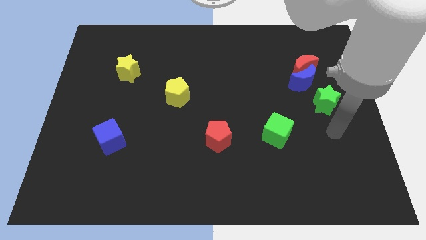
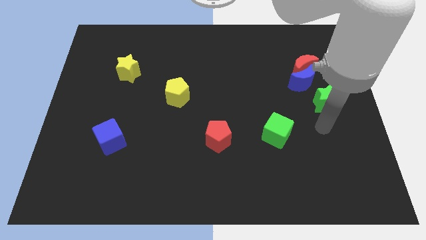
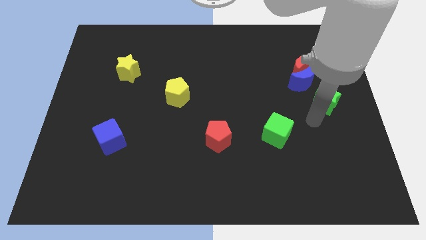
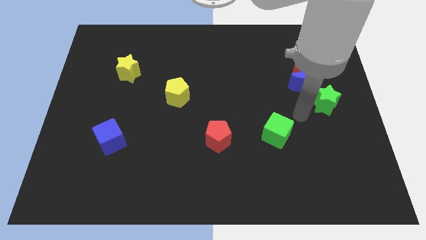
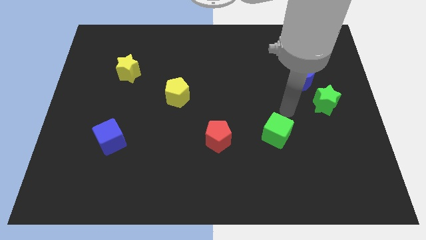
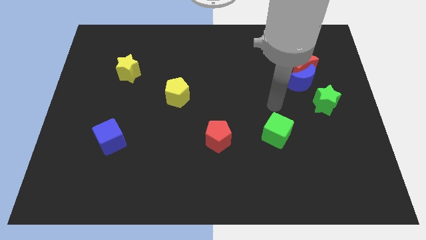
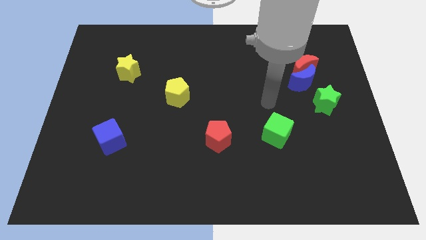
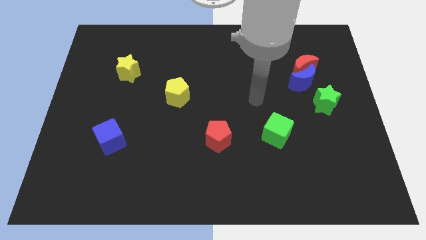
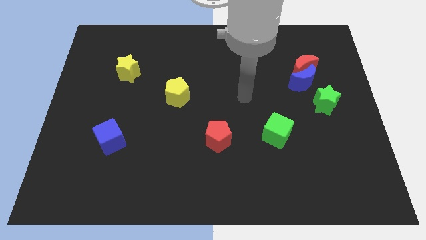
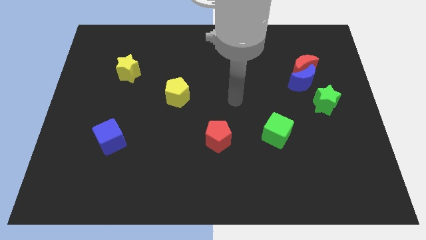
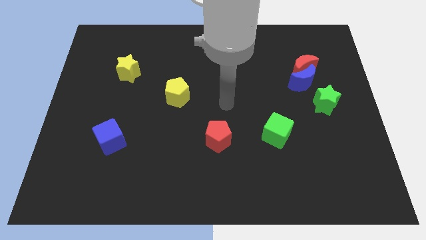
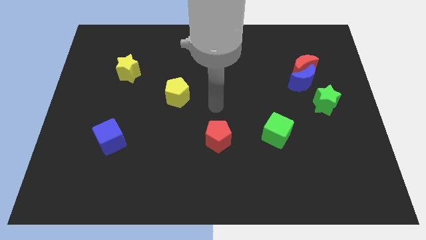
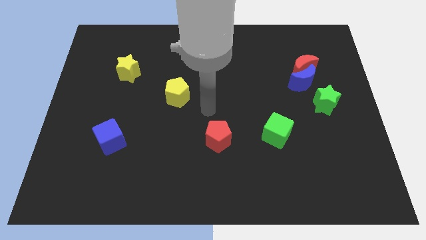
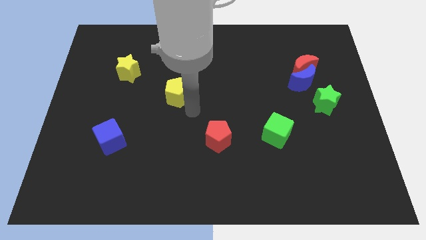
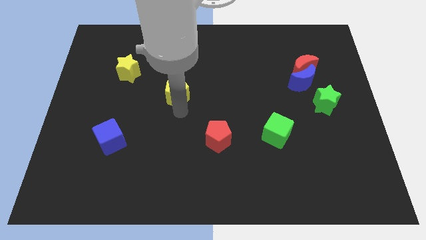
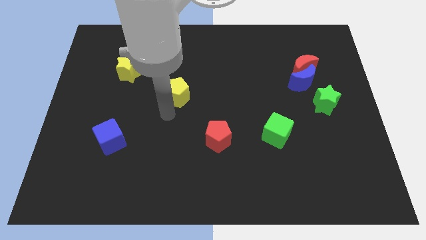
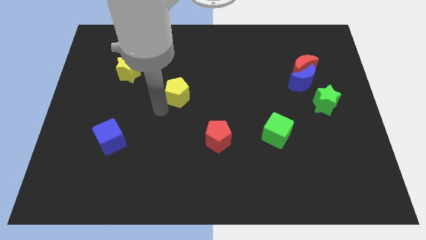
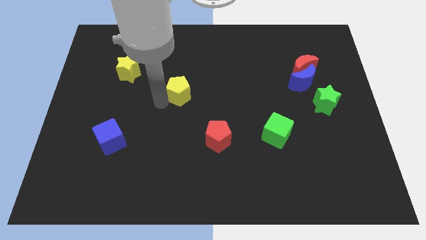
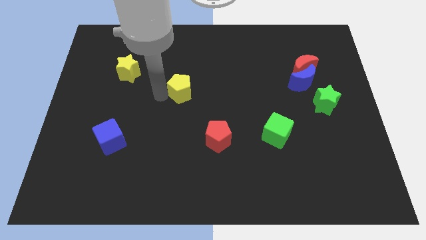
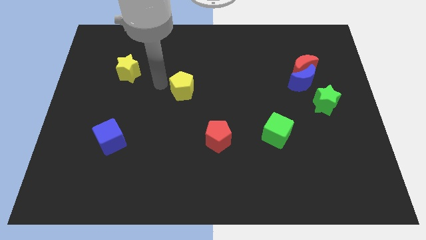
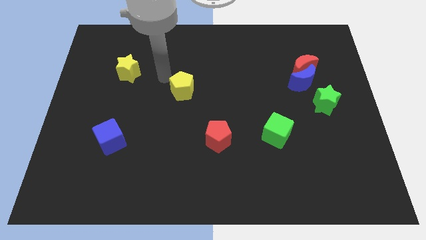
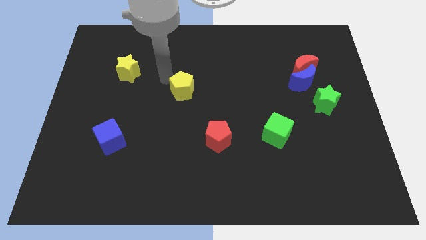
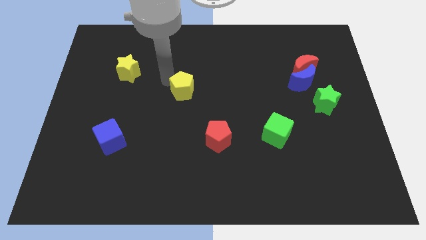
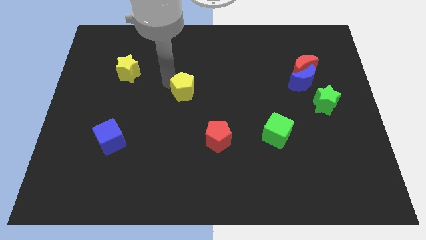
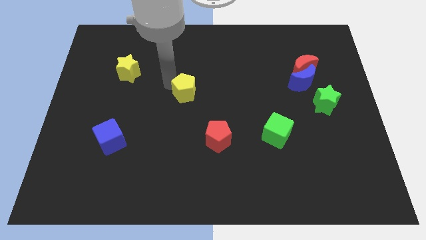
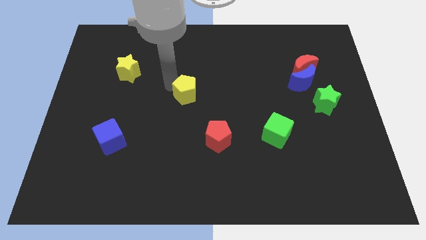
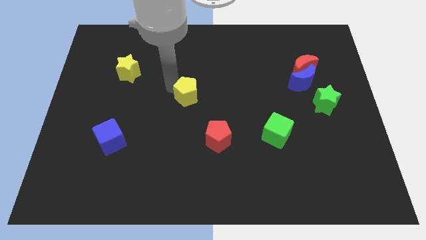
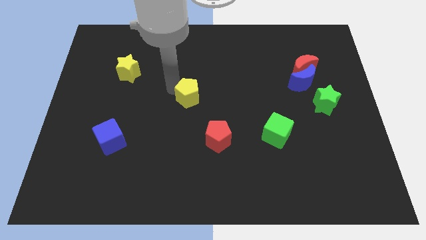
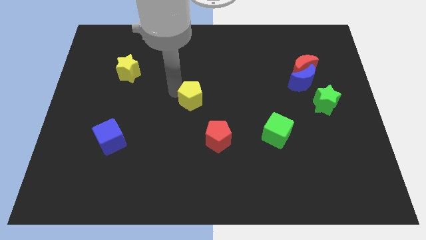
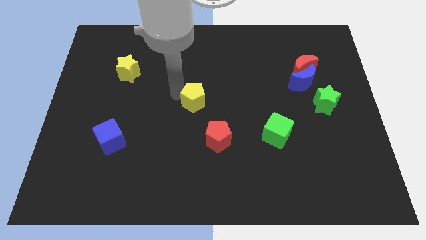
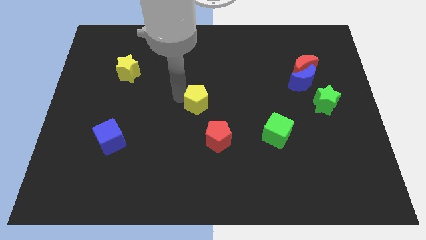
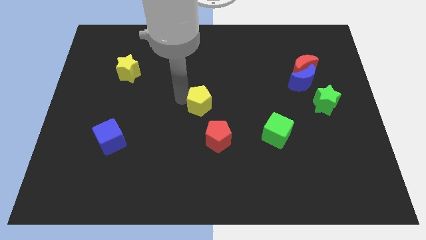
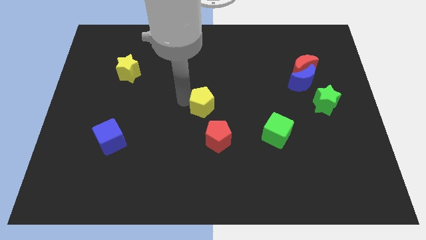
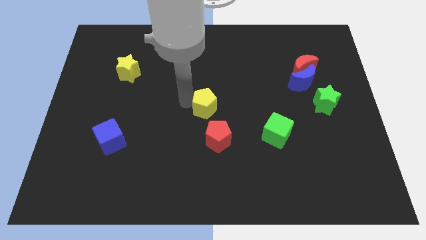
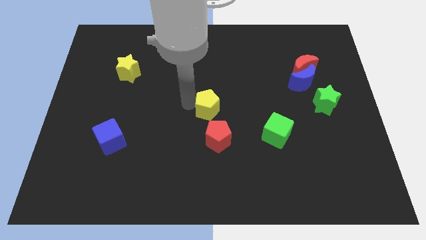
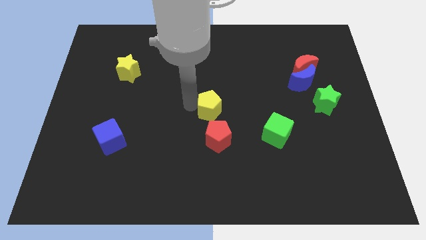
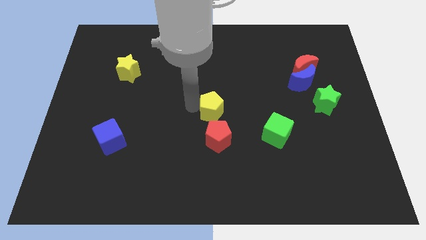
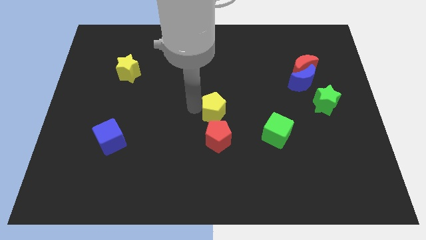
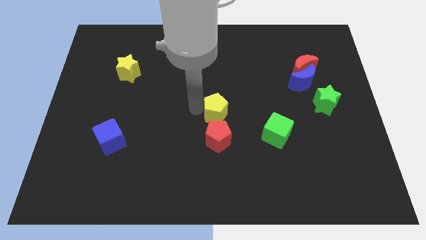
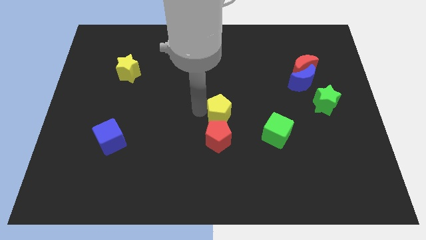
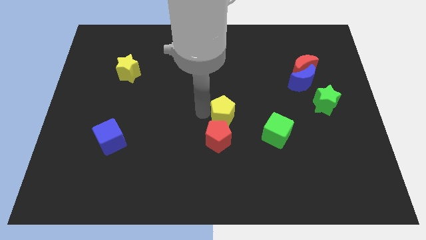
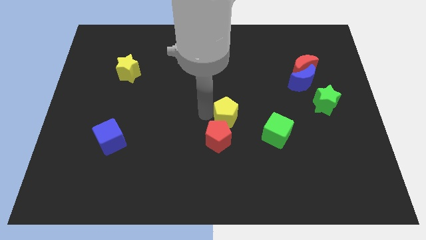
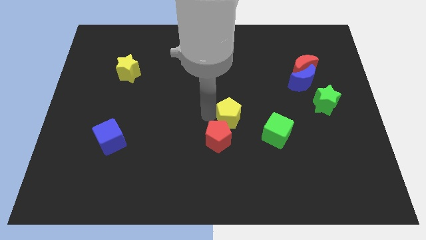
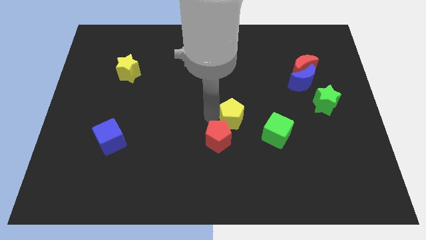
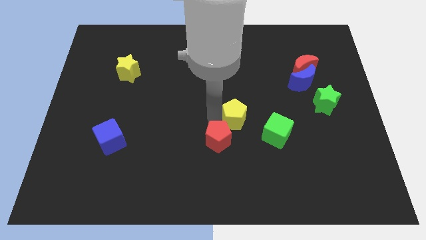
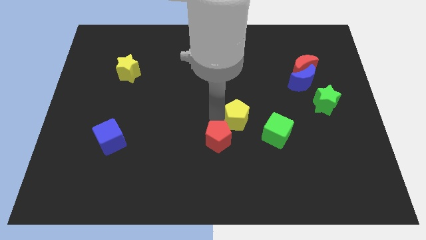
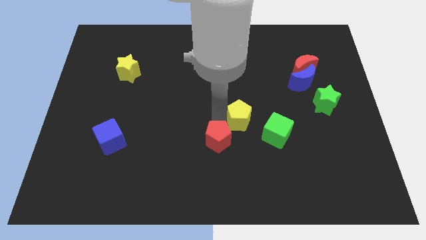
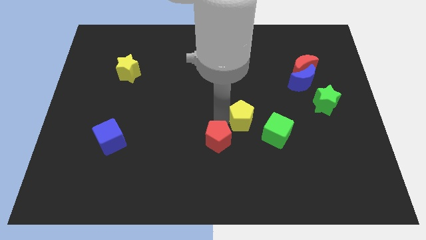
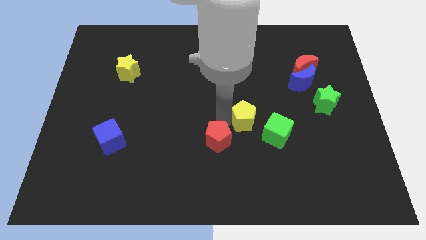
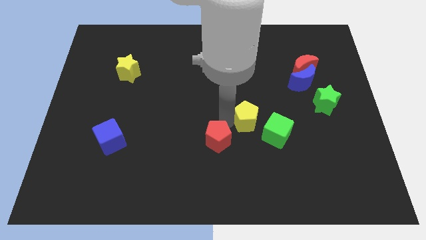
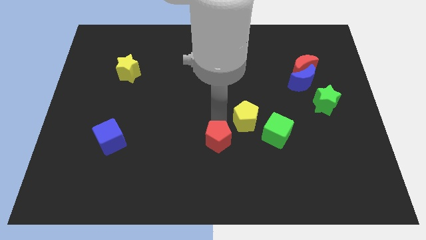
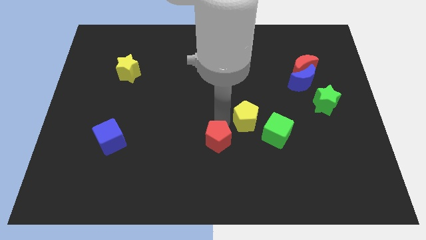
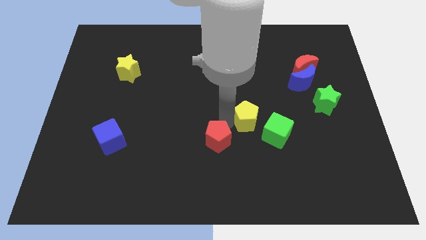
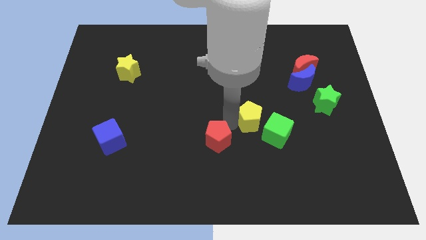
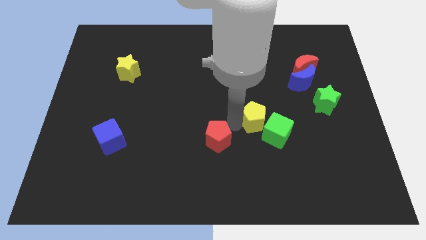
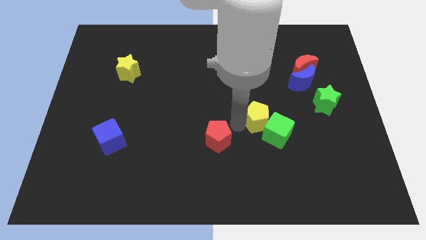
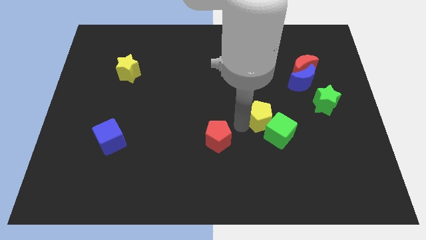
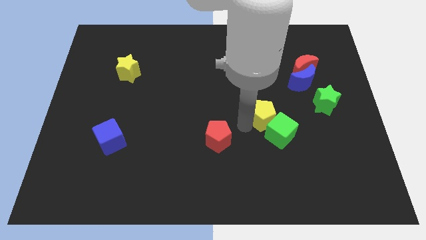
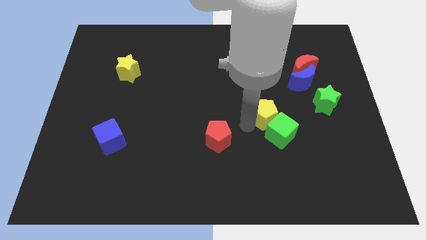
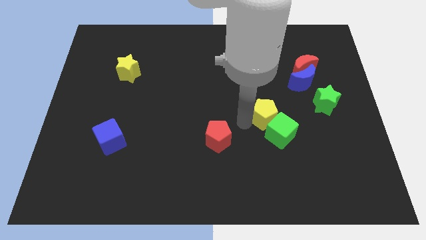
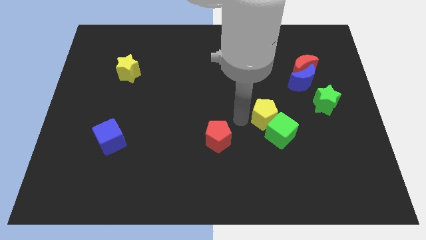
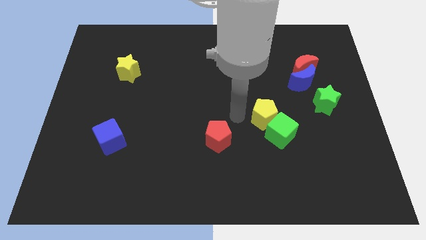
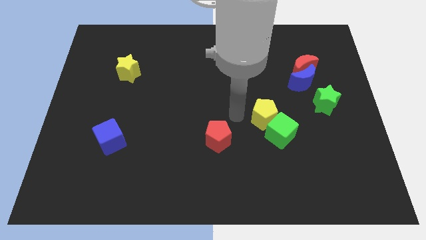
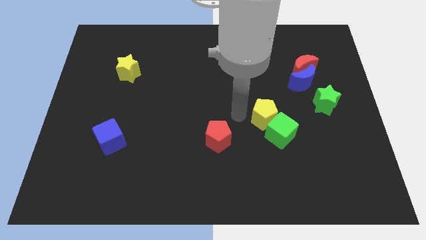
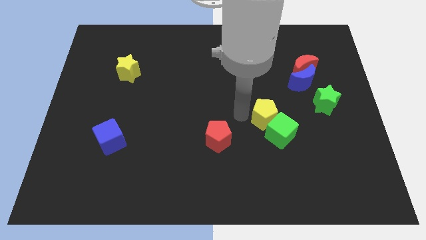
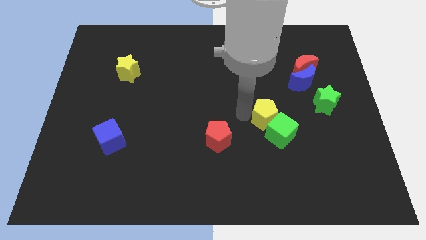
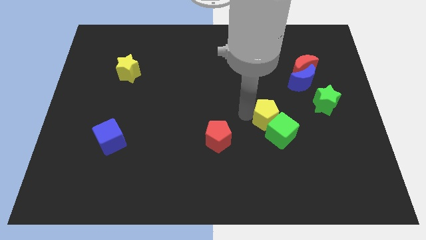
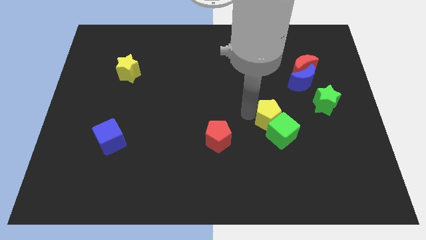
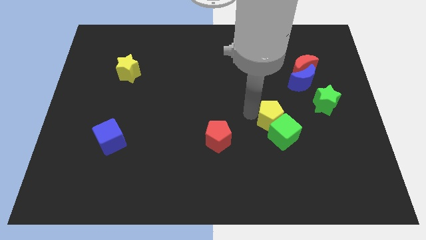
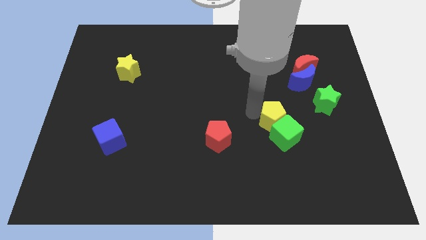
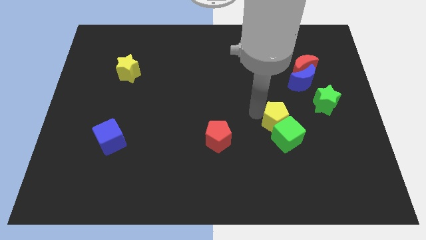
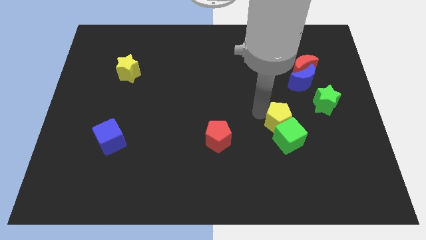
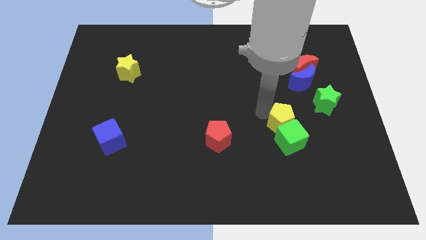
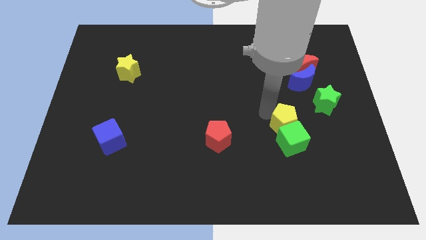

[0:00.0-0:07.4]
push the yellow pentagon to the bottom left of the green star
